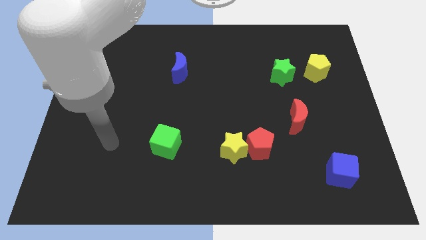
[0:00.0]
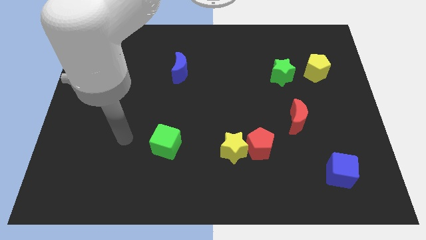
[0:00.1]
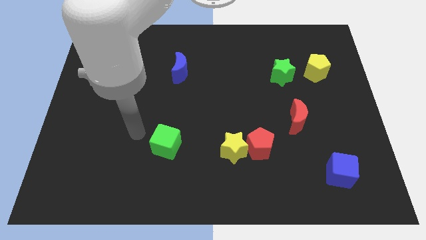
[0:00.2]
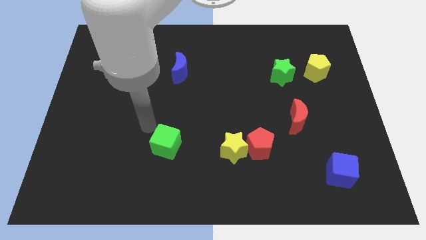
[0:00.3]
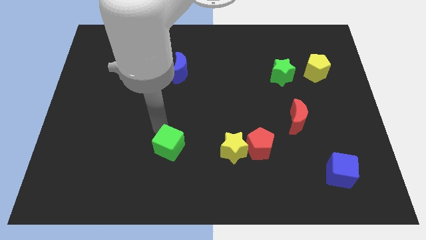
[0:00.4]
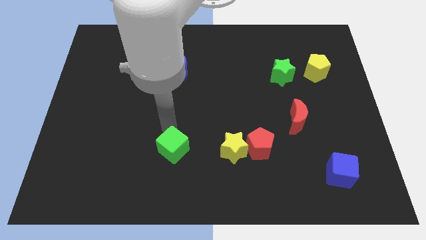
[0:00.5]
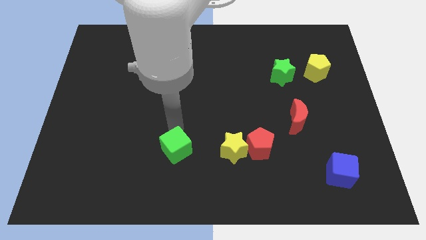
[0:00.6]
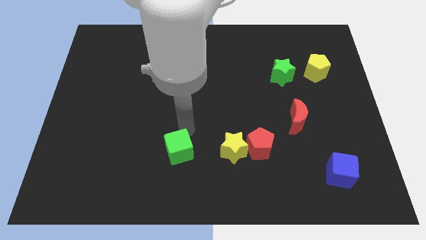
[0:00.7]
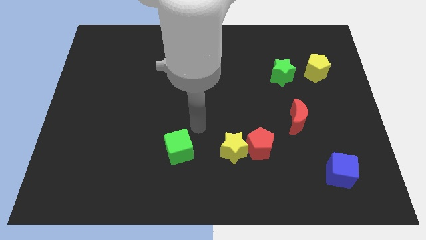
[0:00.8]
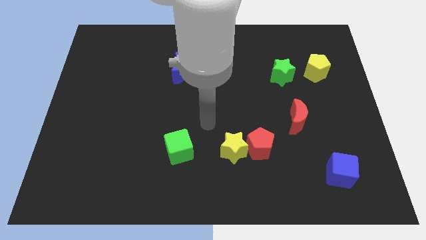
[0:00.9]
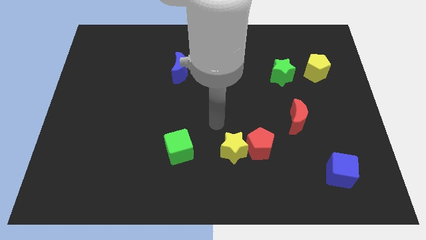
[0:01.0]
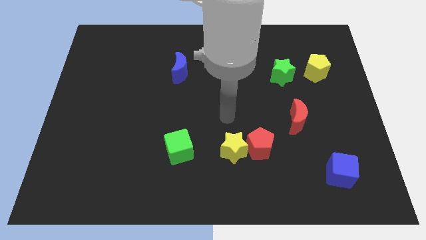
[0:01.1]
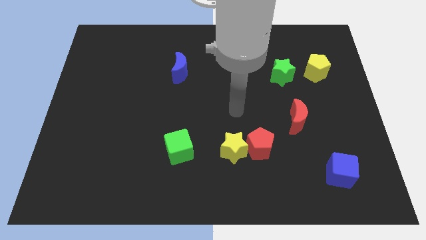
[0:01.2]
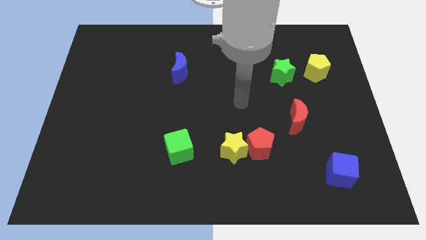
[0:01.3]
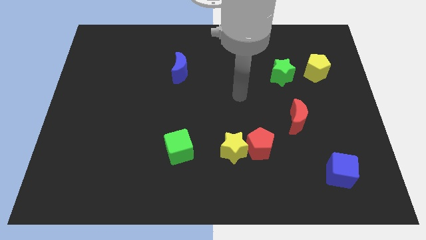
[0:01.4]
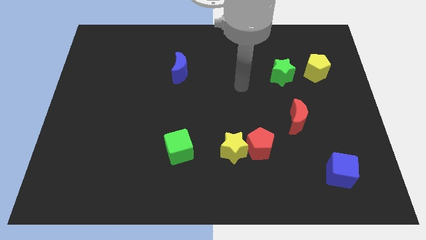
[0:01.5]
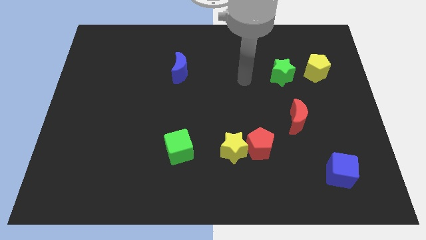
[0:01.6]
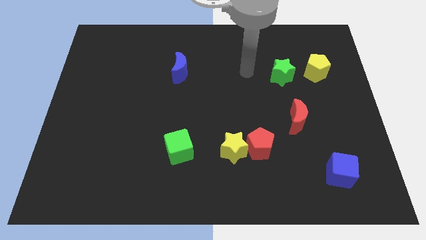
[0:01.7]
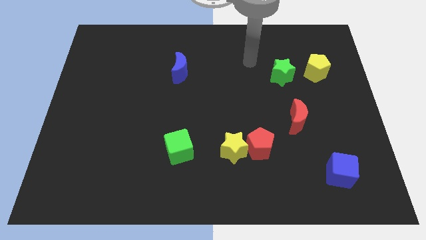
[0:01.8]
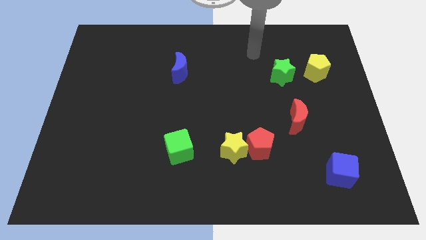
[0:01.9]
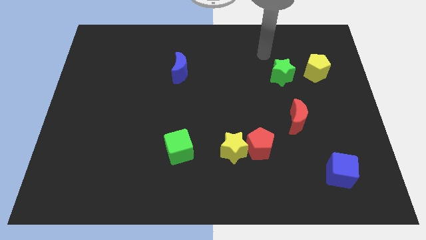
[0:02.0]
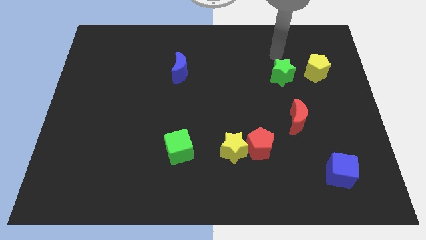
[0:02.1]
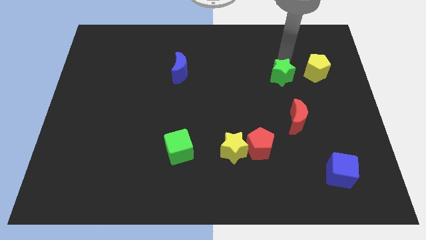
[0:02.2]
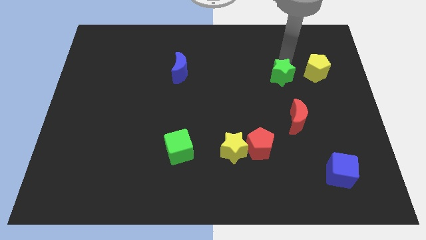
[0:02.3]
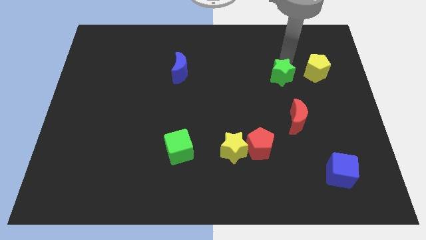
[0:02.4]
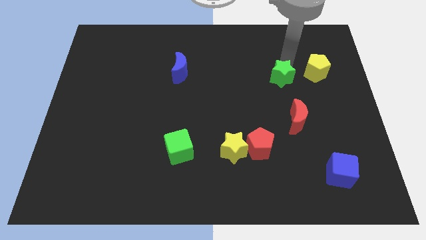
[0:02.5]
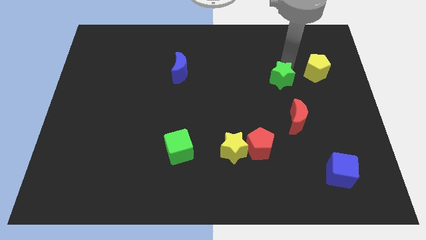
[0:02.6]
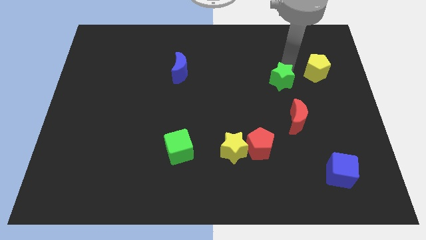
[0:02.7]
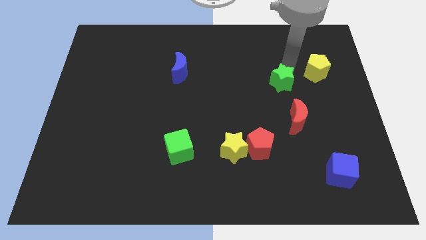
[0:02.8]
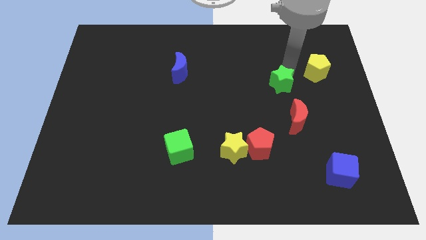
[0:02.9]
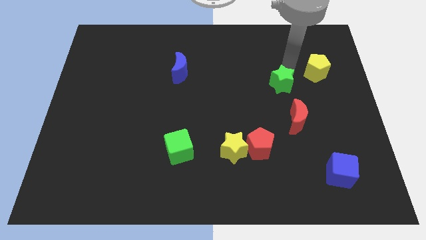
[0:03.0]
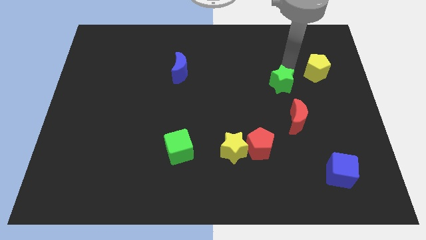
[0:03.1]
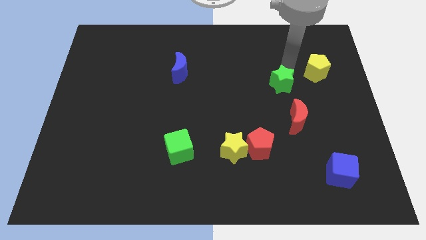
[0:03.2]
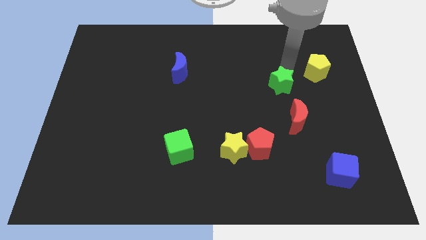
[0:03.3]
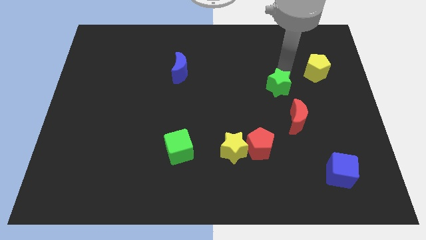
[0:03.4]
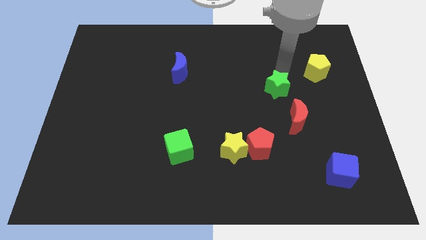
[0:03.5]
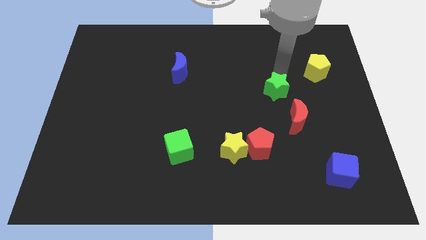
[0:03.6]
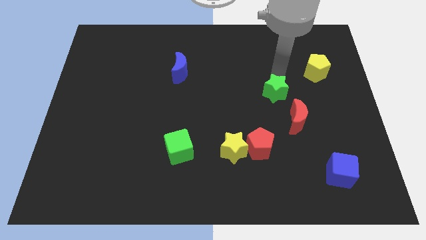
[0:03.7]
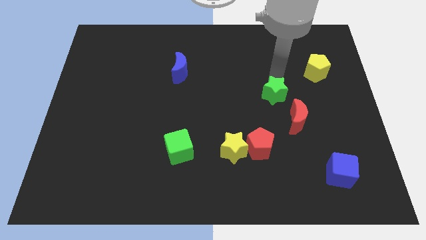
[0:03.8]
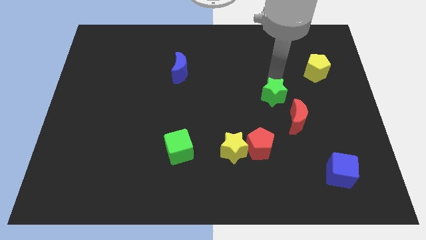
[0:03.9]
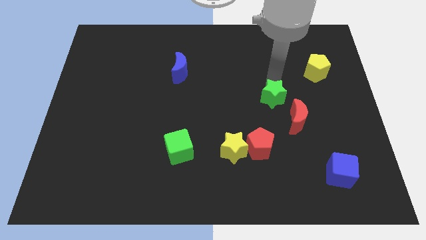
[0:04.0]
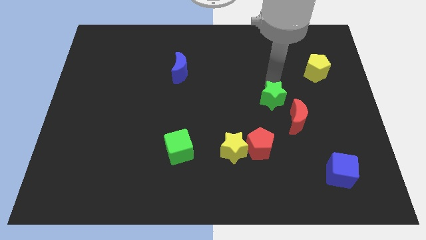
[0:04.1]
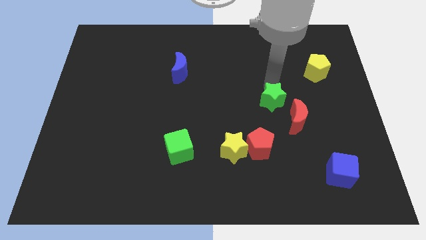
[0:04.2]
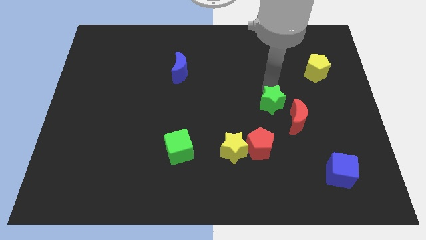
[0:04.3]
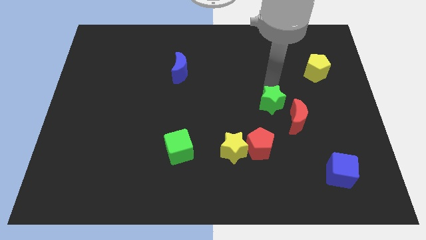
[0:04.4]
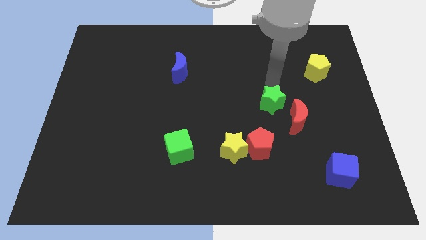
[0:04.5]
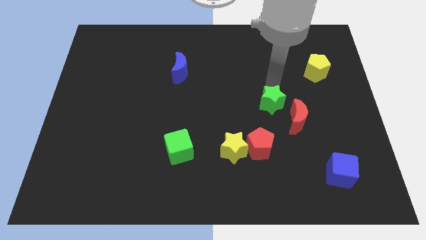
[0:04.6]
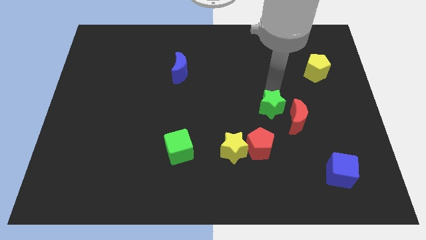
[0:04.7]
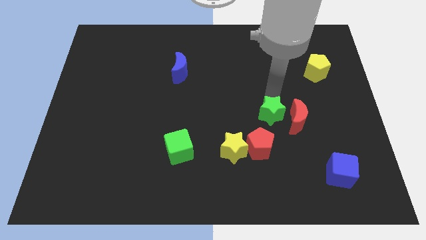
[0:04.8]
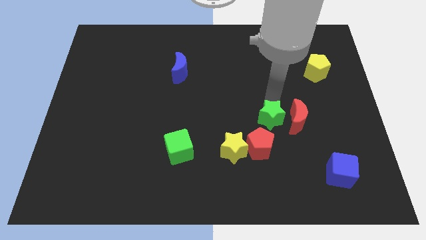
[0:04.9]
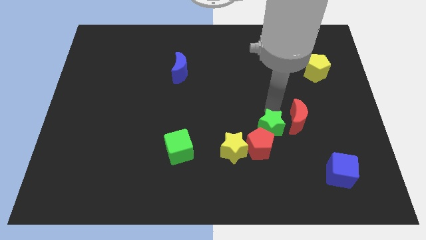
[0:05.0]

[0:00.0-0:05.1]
slide the green star close to the red pentagon

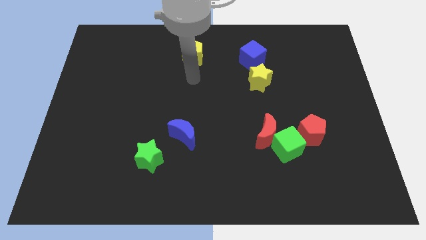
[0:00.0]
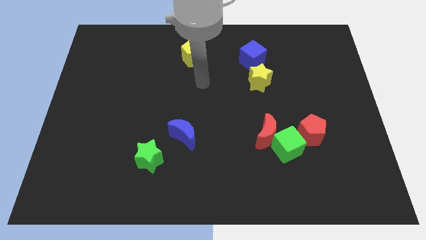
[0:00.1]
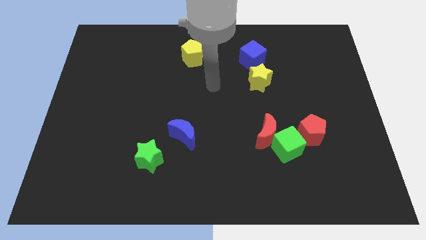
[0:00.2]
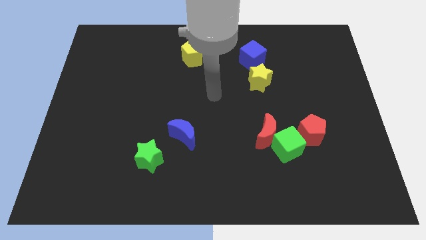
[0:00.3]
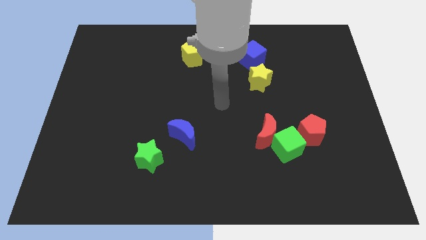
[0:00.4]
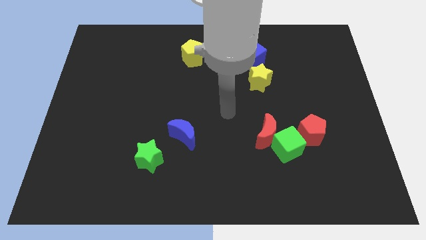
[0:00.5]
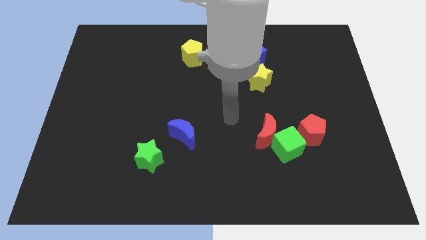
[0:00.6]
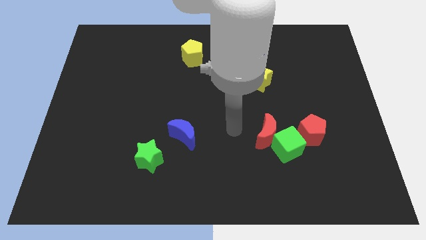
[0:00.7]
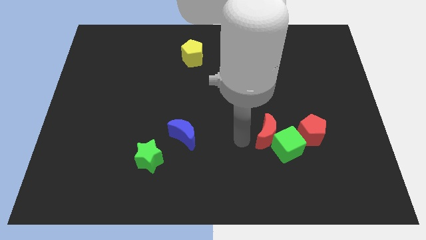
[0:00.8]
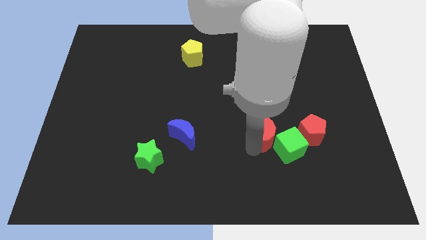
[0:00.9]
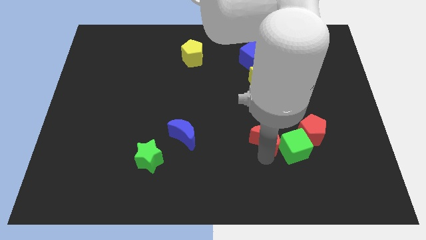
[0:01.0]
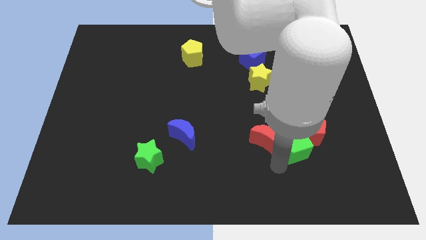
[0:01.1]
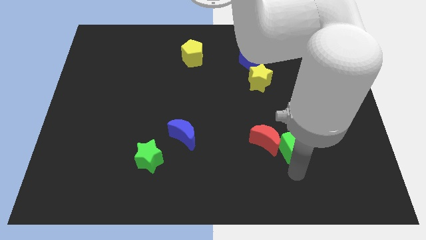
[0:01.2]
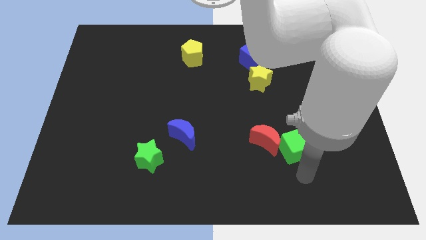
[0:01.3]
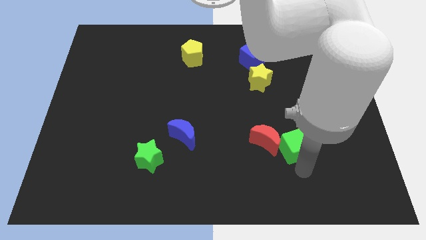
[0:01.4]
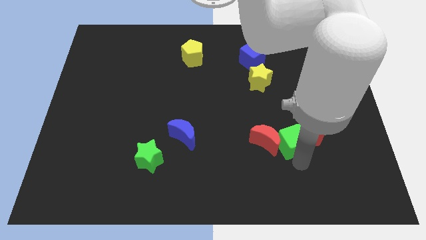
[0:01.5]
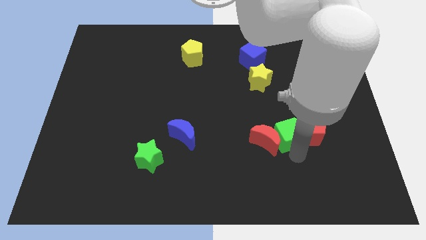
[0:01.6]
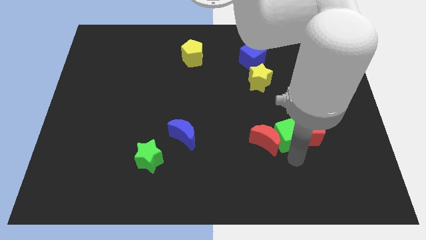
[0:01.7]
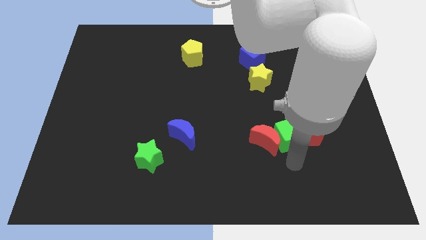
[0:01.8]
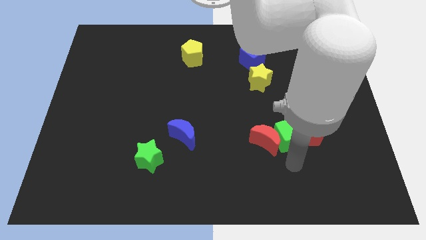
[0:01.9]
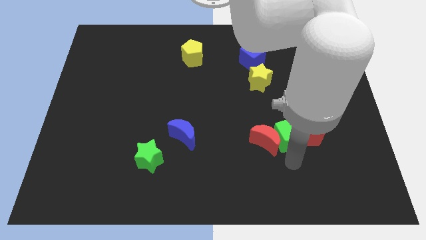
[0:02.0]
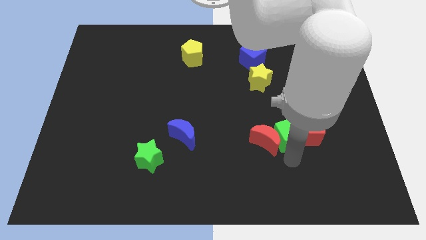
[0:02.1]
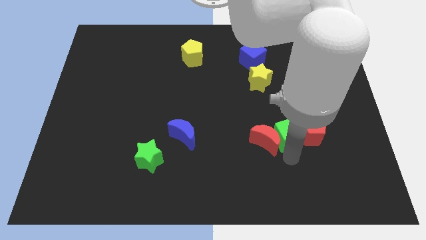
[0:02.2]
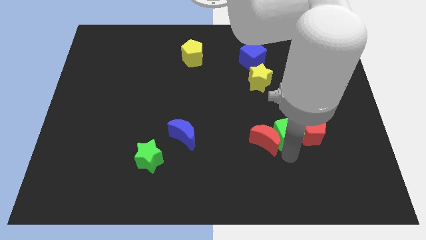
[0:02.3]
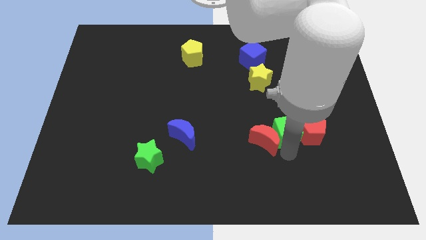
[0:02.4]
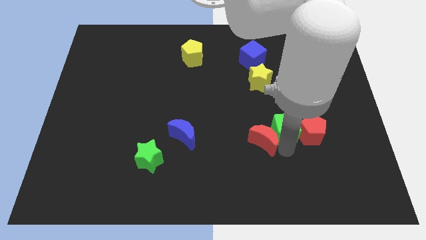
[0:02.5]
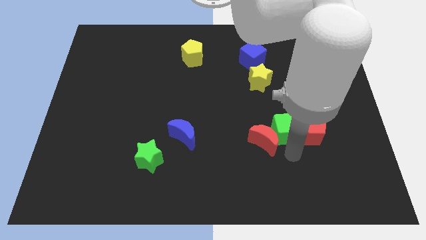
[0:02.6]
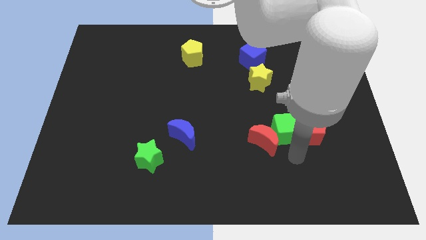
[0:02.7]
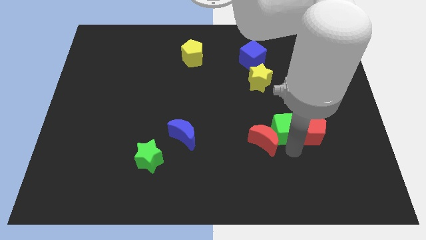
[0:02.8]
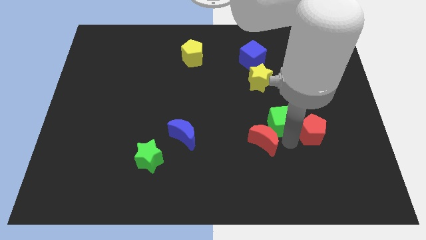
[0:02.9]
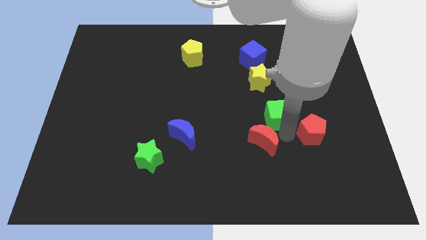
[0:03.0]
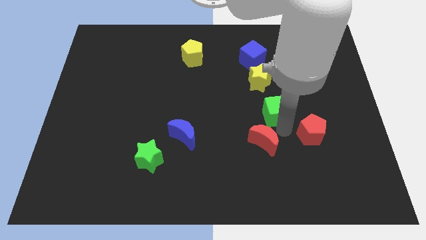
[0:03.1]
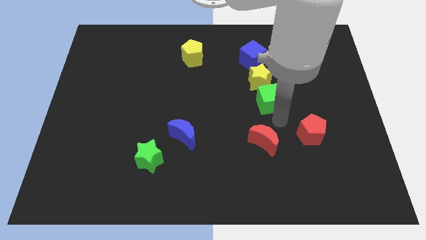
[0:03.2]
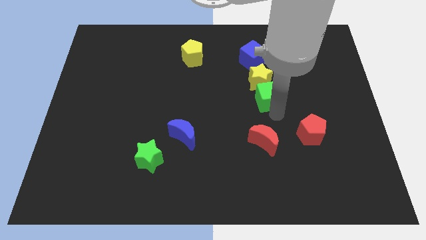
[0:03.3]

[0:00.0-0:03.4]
move the green cube close to the yellow star
